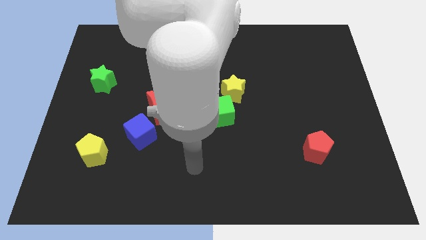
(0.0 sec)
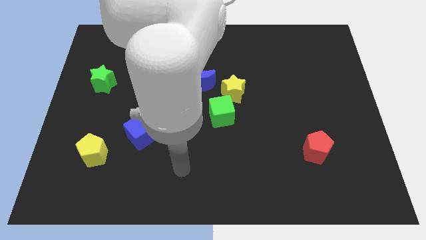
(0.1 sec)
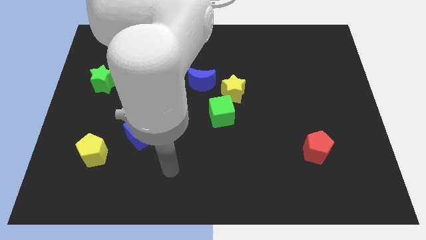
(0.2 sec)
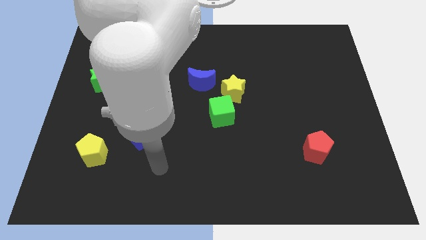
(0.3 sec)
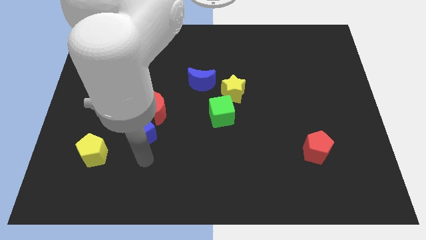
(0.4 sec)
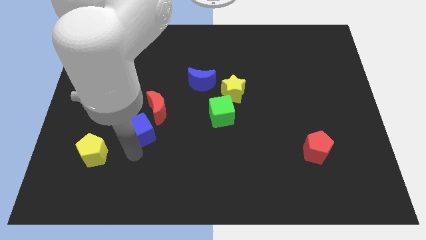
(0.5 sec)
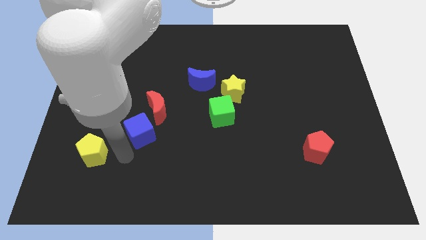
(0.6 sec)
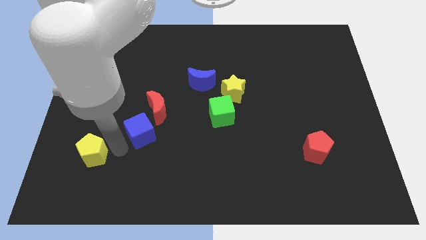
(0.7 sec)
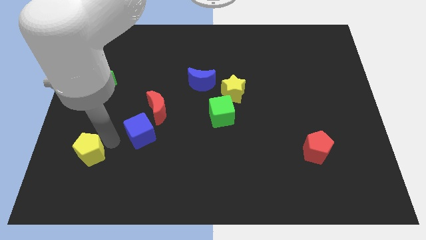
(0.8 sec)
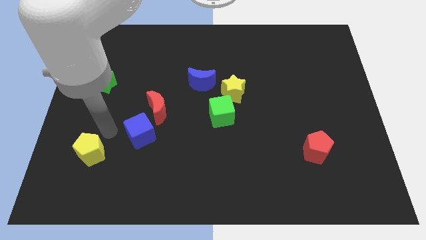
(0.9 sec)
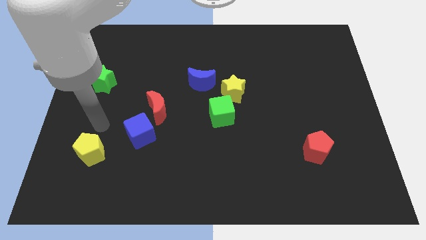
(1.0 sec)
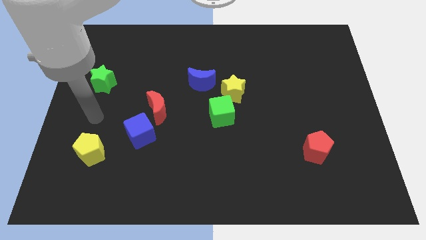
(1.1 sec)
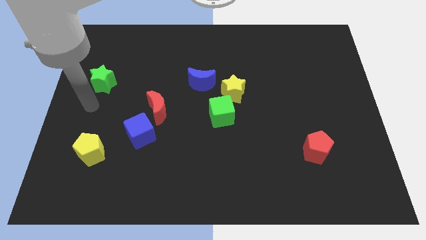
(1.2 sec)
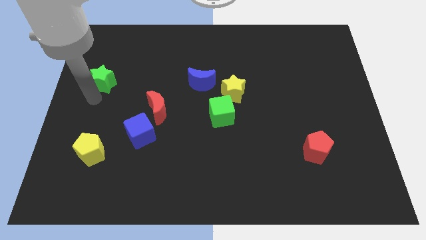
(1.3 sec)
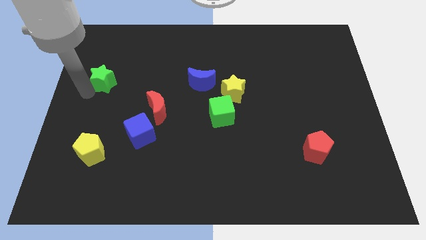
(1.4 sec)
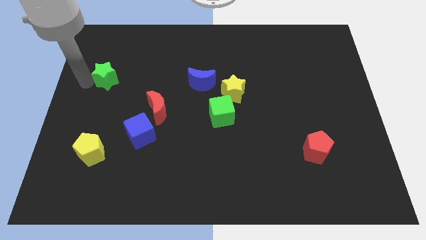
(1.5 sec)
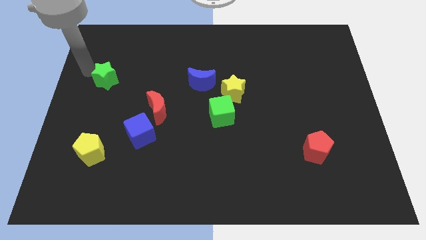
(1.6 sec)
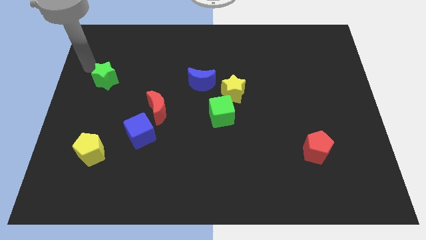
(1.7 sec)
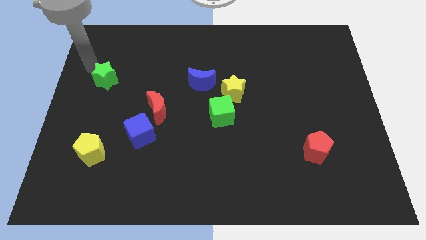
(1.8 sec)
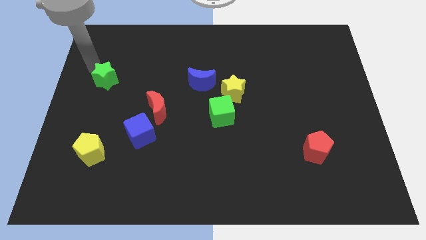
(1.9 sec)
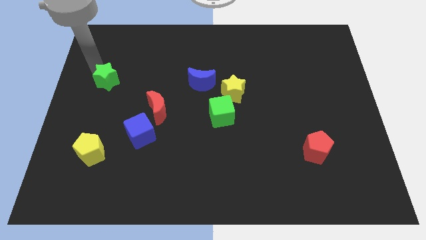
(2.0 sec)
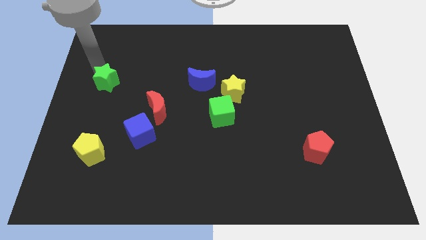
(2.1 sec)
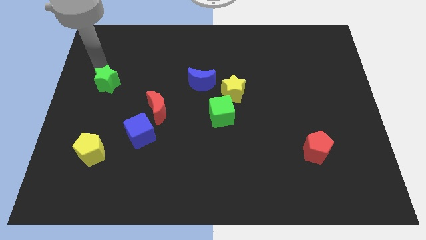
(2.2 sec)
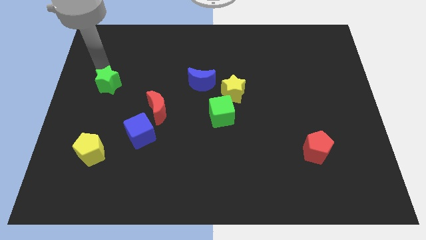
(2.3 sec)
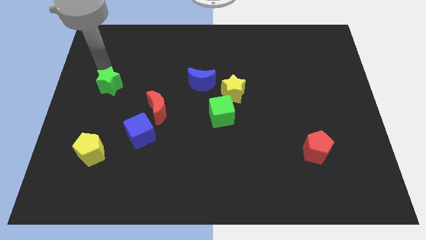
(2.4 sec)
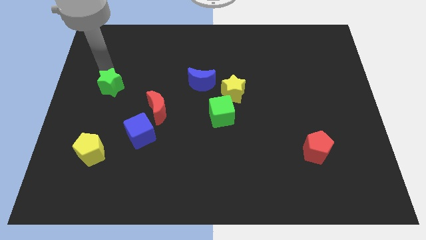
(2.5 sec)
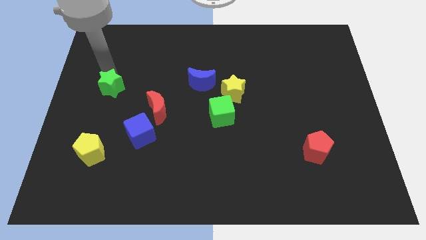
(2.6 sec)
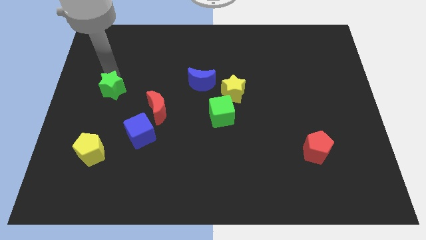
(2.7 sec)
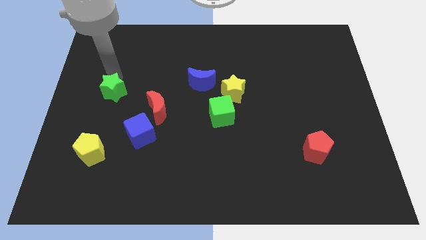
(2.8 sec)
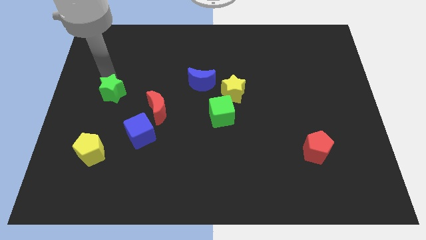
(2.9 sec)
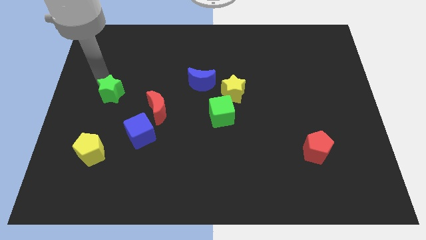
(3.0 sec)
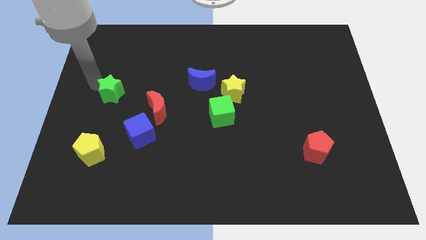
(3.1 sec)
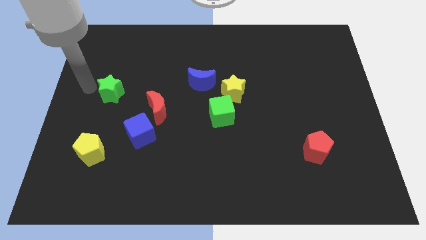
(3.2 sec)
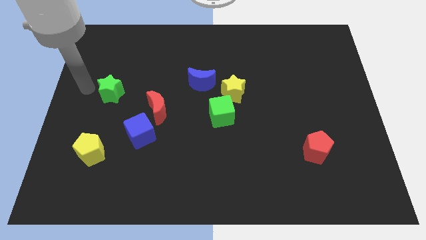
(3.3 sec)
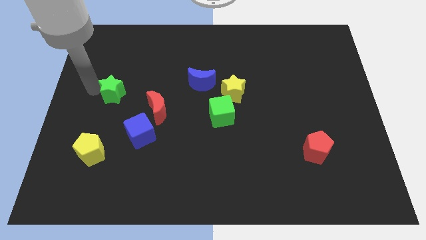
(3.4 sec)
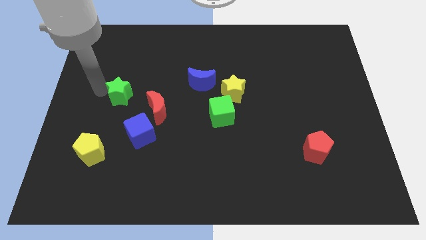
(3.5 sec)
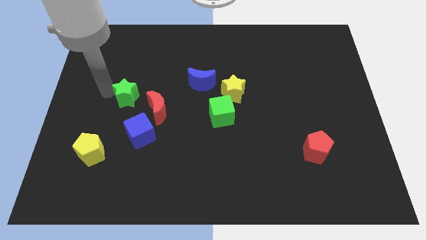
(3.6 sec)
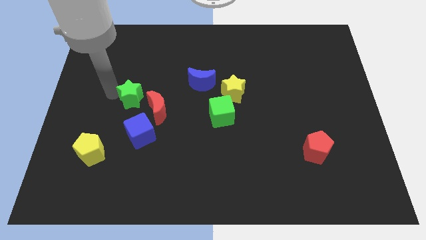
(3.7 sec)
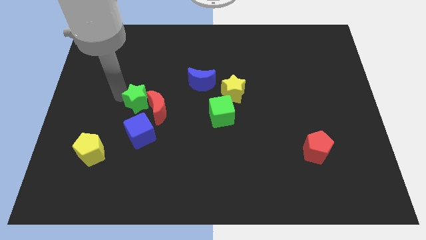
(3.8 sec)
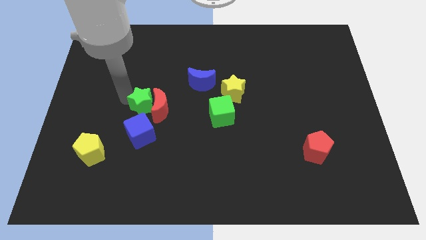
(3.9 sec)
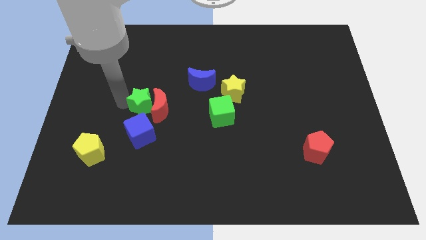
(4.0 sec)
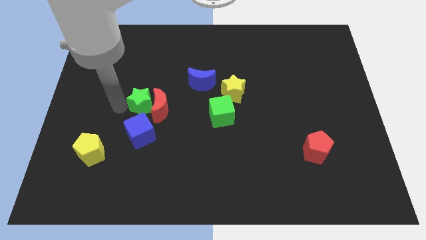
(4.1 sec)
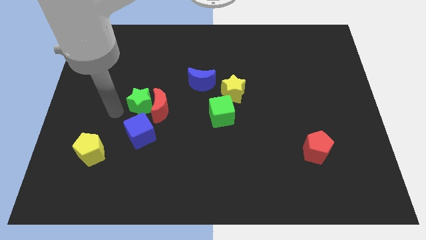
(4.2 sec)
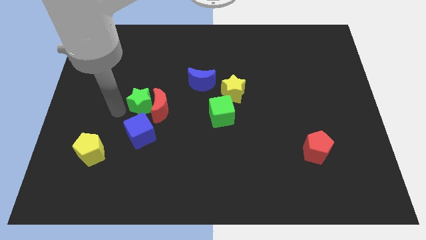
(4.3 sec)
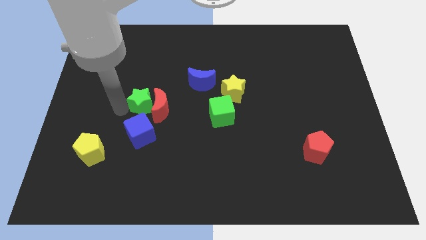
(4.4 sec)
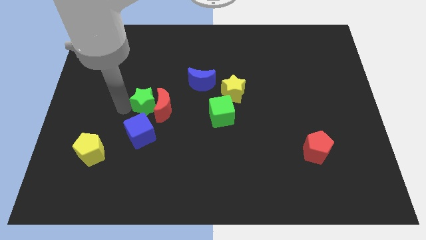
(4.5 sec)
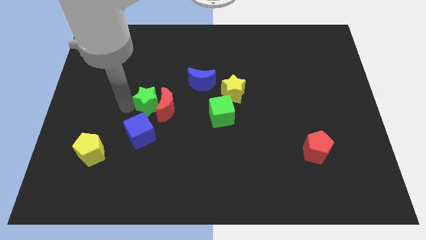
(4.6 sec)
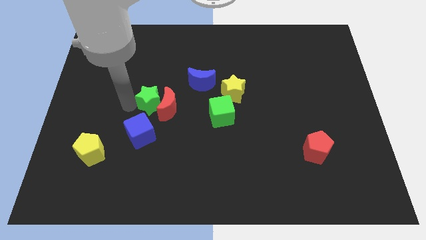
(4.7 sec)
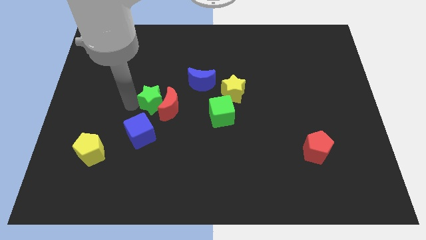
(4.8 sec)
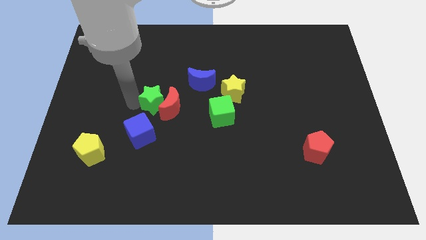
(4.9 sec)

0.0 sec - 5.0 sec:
move the green star to the top right side of the blue cube

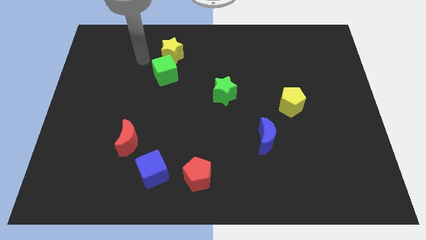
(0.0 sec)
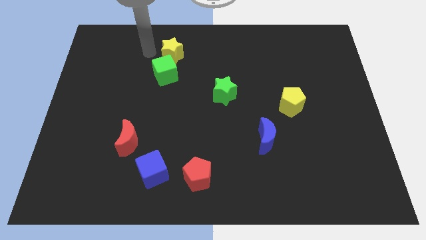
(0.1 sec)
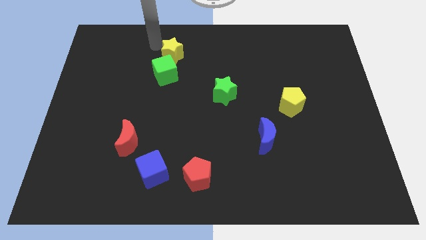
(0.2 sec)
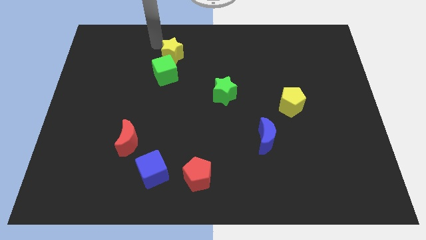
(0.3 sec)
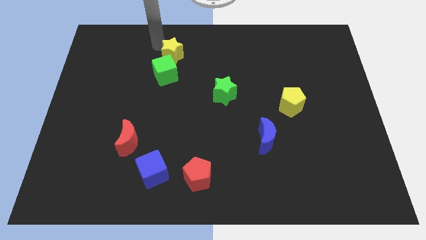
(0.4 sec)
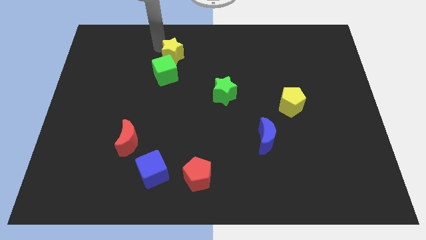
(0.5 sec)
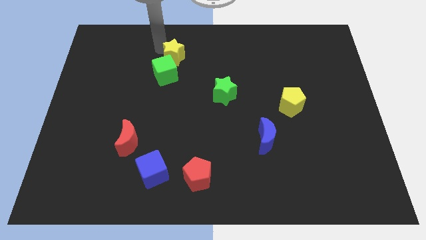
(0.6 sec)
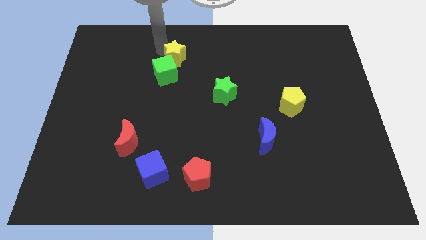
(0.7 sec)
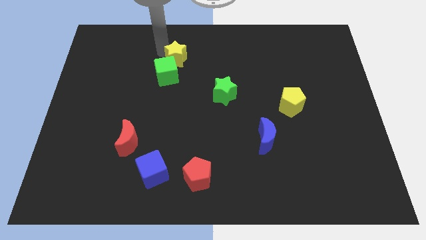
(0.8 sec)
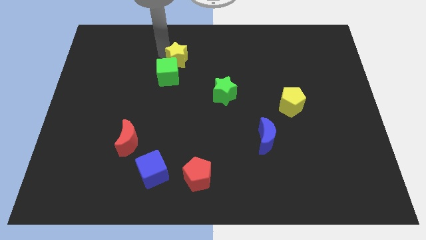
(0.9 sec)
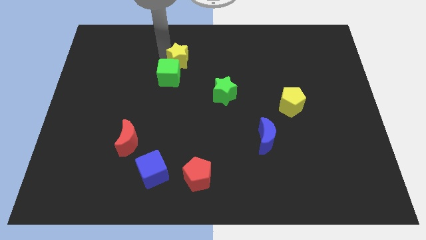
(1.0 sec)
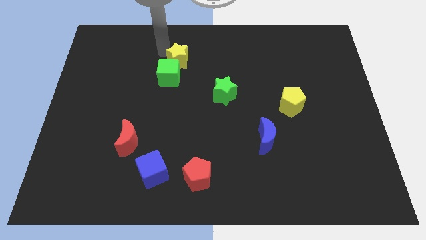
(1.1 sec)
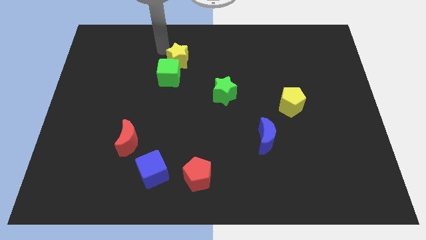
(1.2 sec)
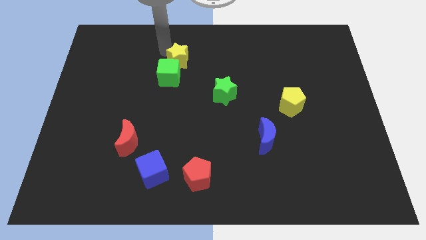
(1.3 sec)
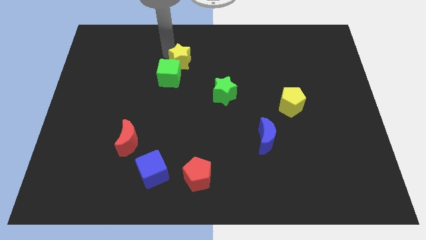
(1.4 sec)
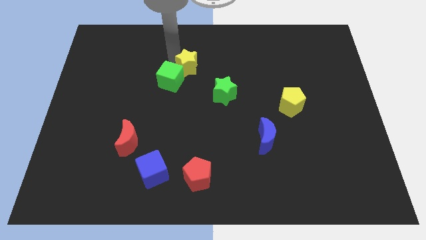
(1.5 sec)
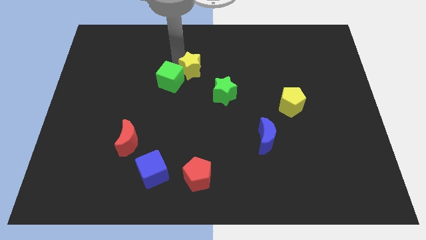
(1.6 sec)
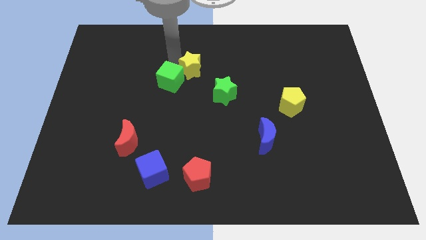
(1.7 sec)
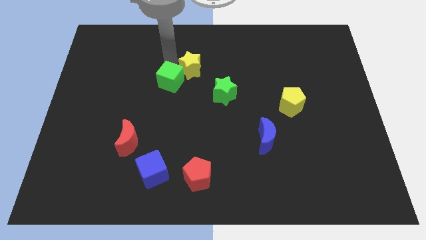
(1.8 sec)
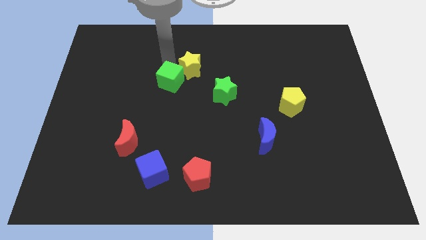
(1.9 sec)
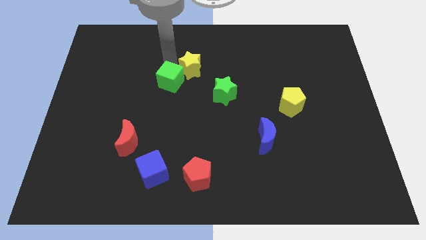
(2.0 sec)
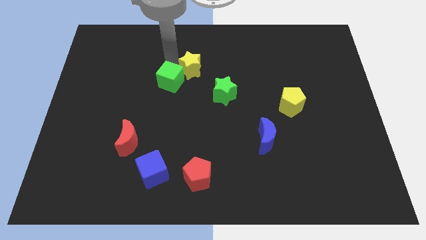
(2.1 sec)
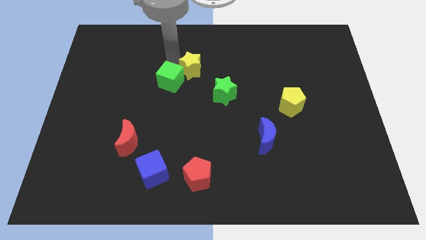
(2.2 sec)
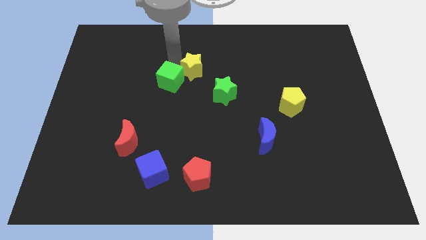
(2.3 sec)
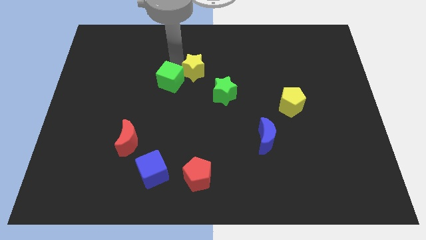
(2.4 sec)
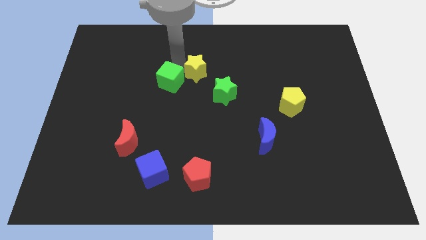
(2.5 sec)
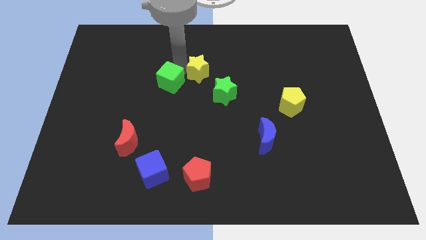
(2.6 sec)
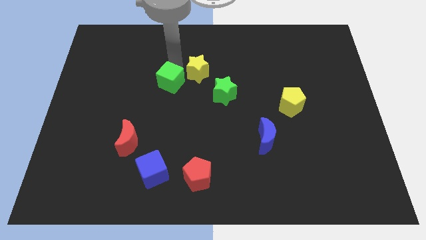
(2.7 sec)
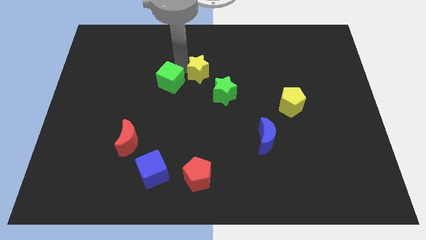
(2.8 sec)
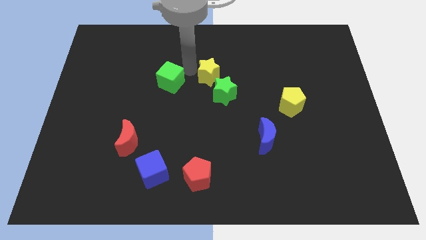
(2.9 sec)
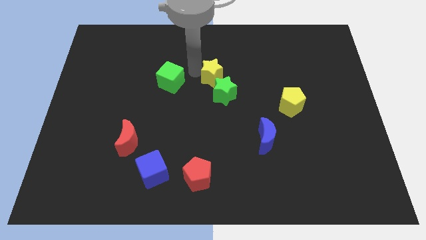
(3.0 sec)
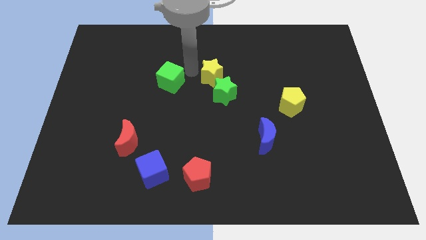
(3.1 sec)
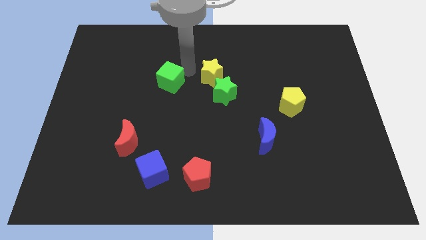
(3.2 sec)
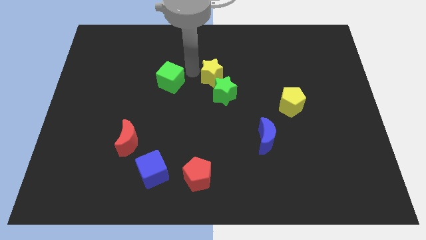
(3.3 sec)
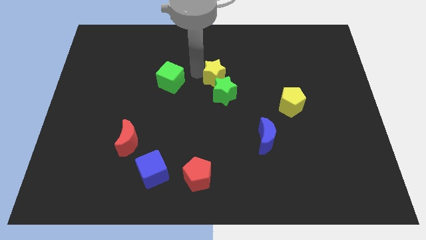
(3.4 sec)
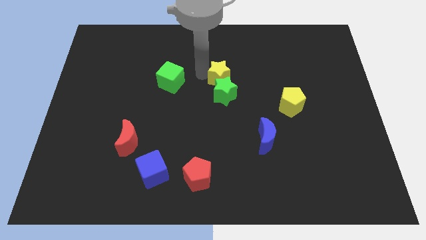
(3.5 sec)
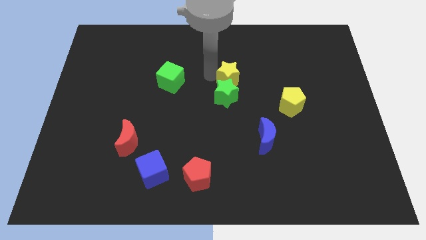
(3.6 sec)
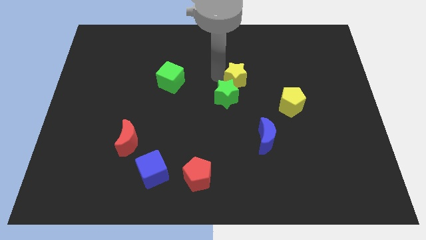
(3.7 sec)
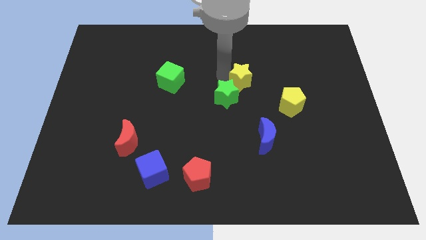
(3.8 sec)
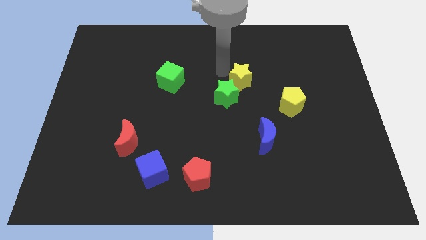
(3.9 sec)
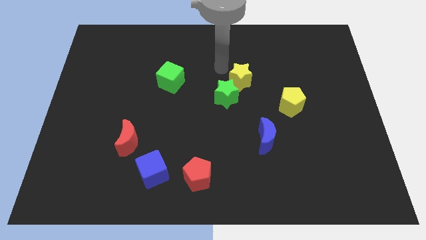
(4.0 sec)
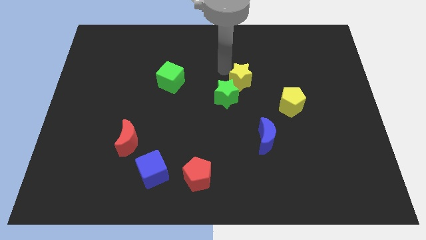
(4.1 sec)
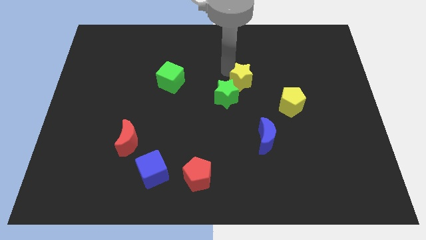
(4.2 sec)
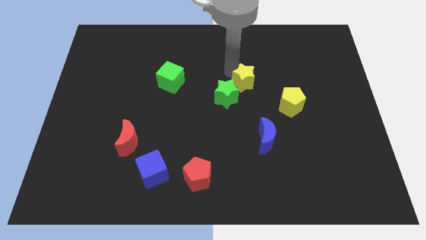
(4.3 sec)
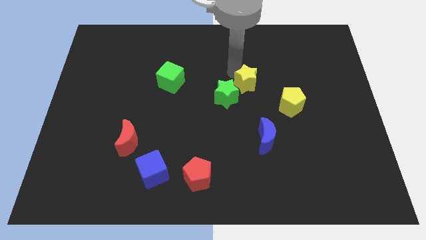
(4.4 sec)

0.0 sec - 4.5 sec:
move the yellow star to the right side of the green star
